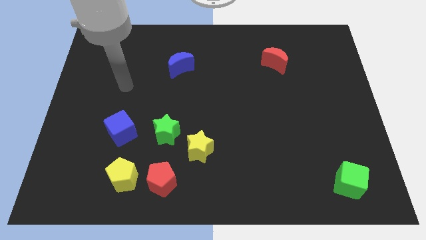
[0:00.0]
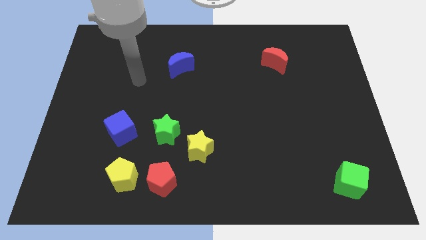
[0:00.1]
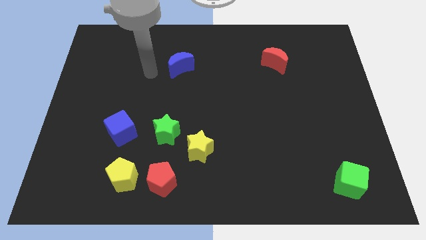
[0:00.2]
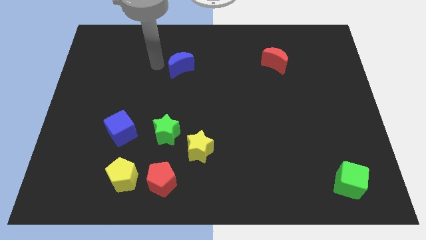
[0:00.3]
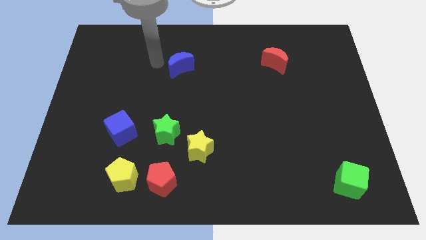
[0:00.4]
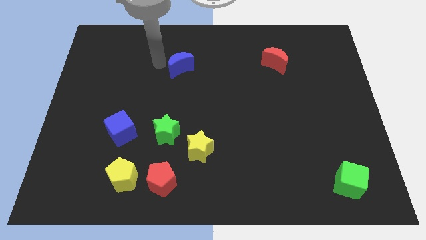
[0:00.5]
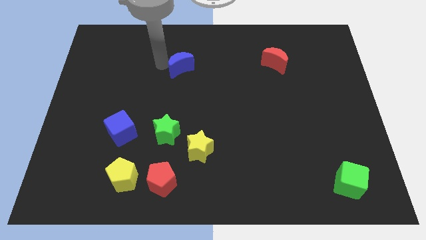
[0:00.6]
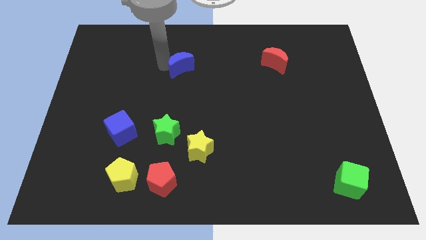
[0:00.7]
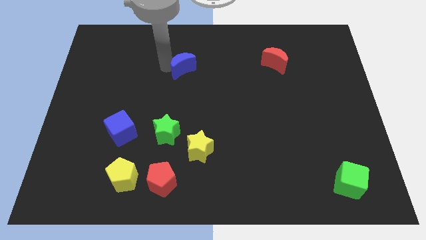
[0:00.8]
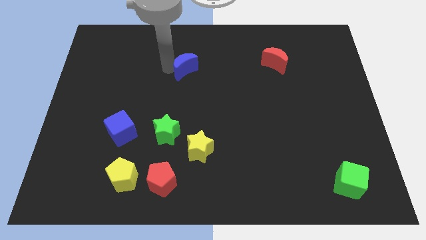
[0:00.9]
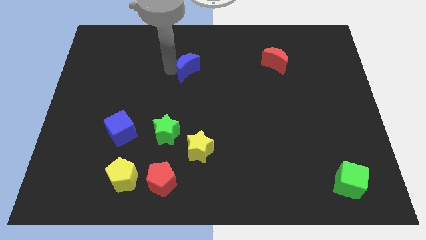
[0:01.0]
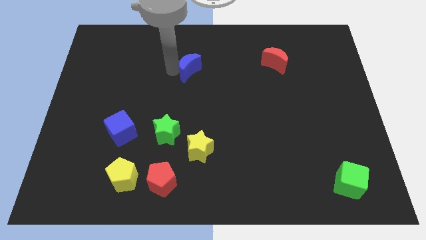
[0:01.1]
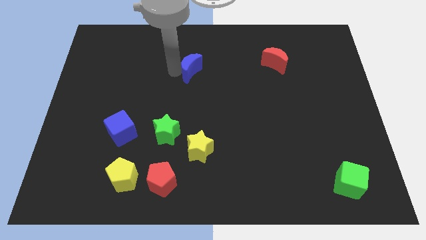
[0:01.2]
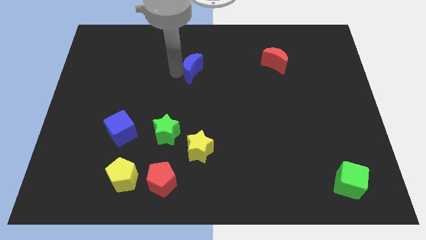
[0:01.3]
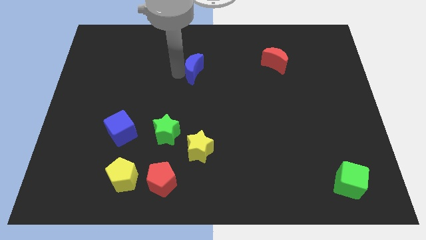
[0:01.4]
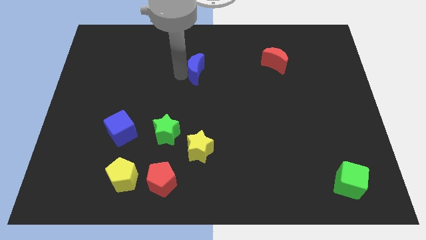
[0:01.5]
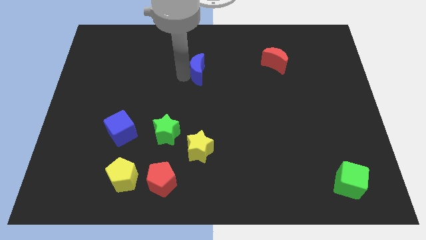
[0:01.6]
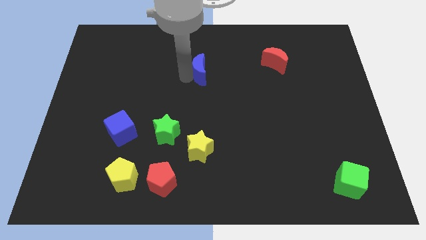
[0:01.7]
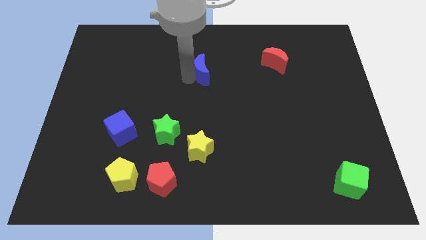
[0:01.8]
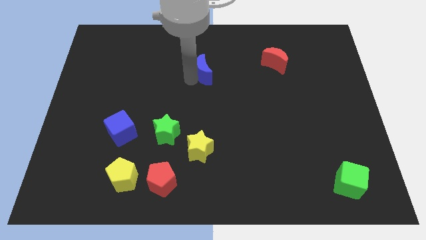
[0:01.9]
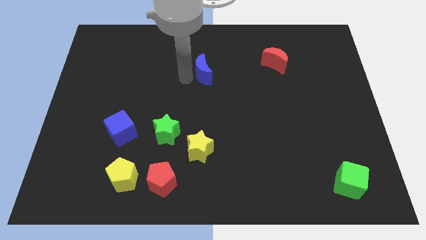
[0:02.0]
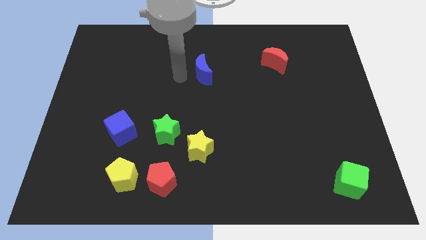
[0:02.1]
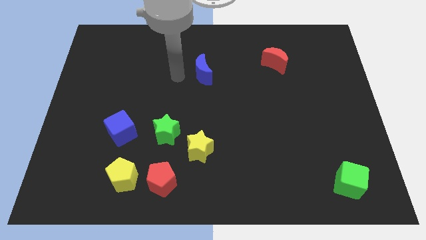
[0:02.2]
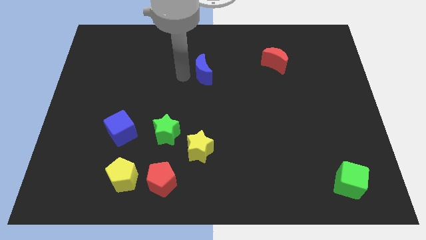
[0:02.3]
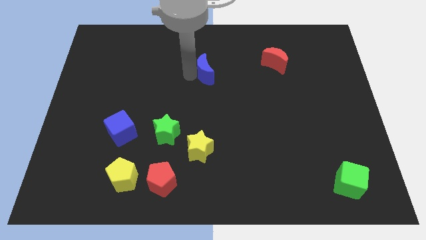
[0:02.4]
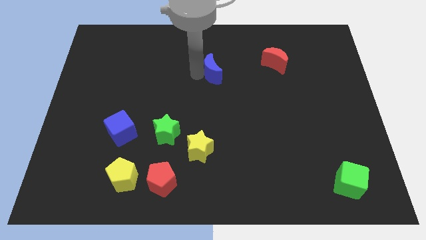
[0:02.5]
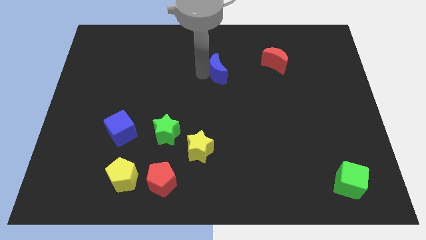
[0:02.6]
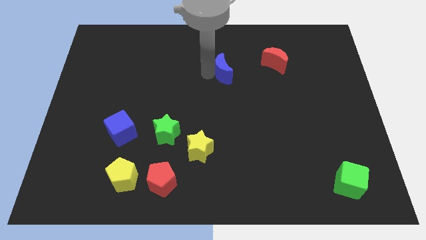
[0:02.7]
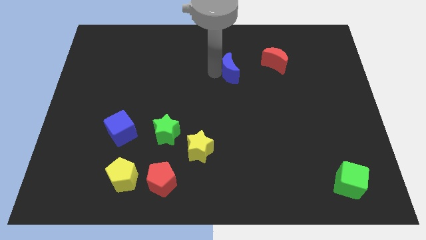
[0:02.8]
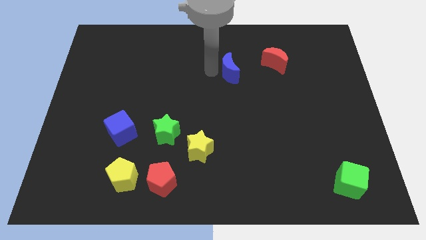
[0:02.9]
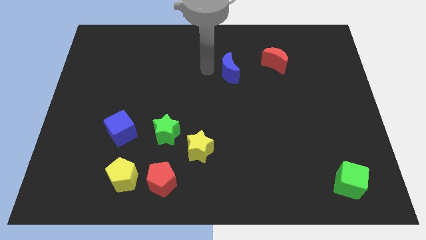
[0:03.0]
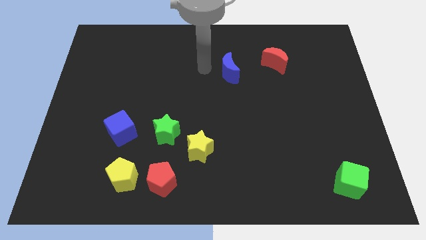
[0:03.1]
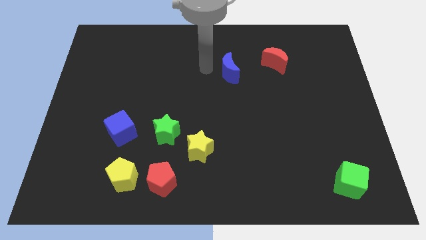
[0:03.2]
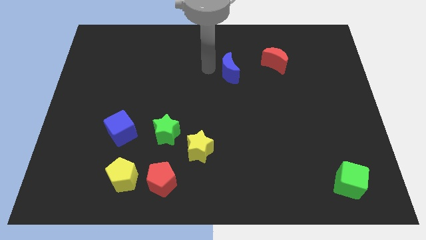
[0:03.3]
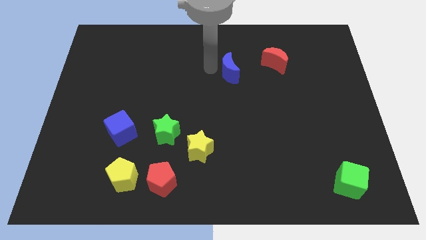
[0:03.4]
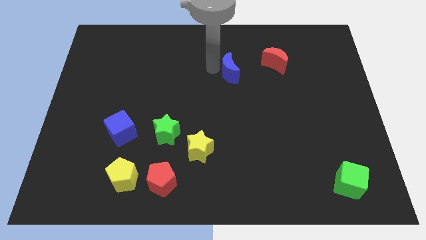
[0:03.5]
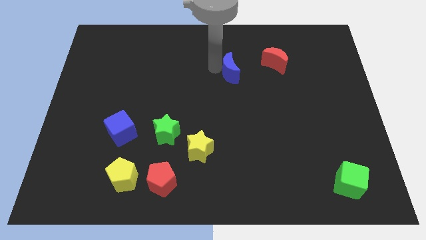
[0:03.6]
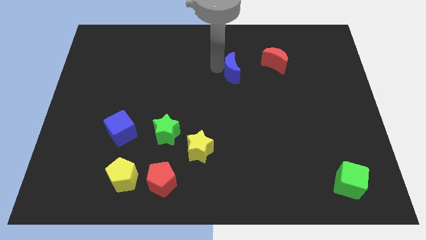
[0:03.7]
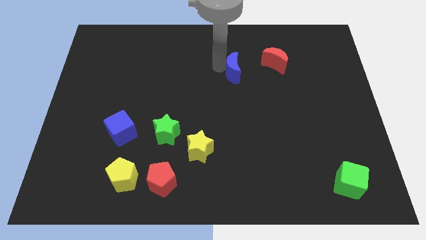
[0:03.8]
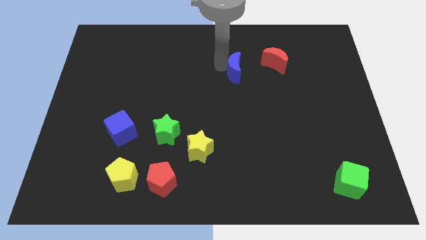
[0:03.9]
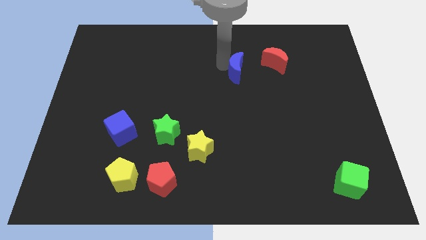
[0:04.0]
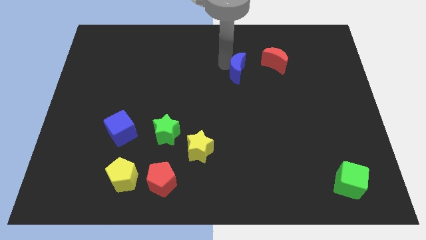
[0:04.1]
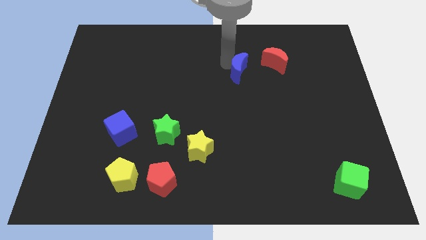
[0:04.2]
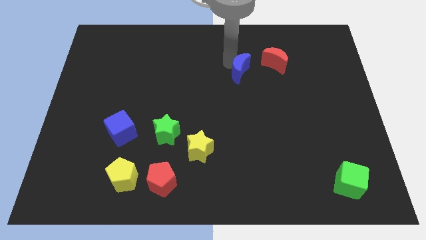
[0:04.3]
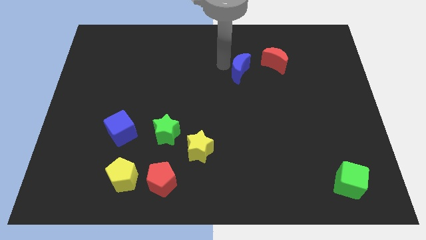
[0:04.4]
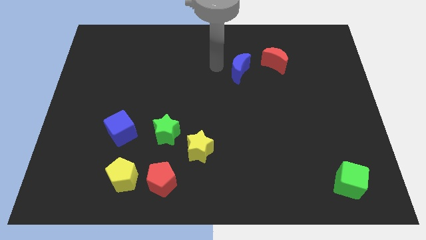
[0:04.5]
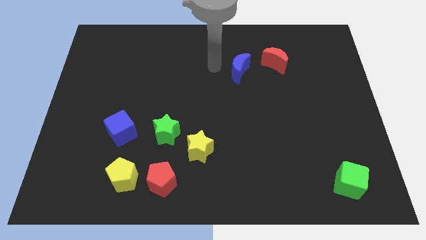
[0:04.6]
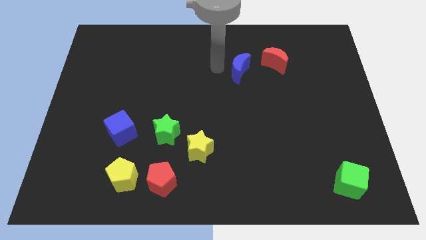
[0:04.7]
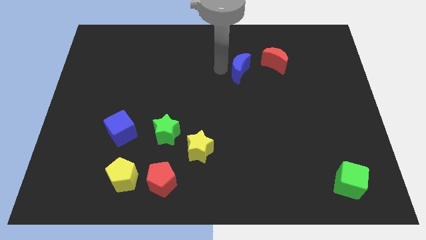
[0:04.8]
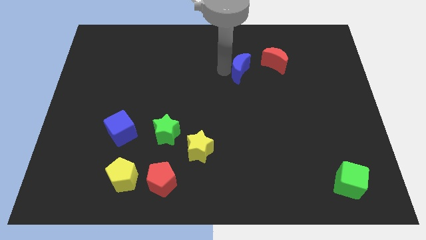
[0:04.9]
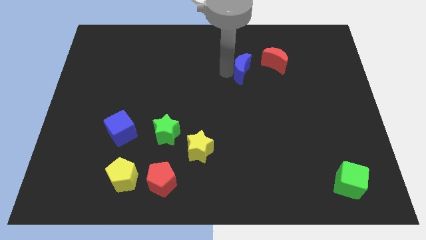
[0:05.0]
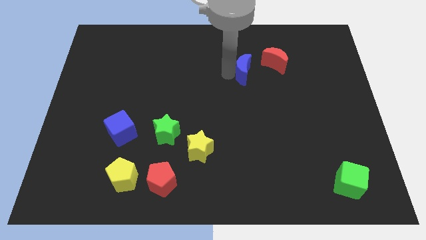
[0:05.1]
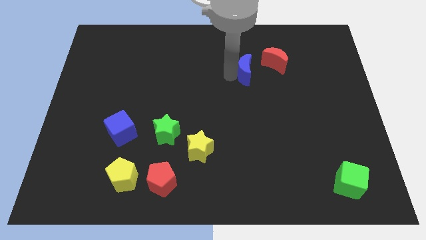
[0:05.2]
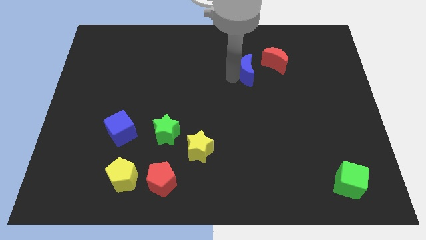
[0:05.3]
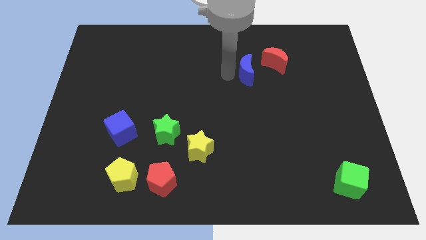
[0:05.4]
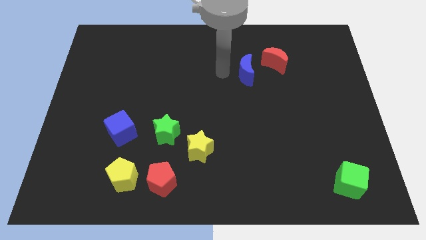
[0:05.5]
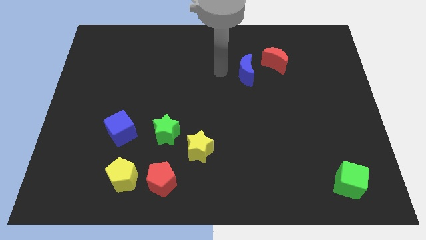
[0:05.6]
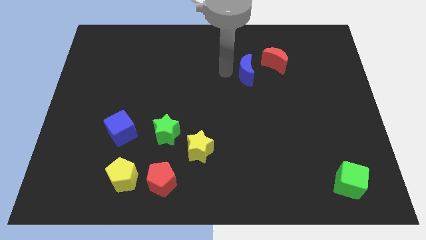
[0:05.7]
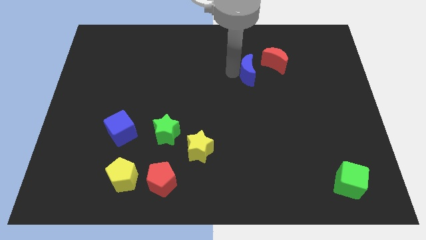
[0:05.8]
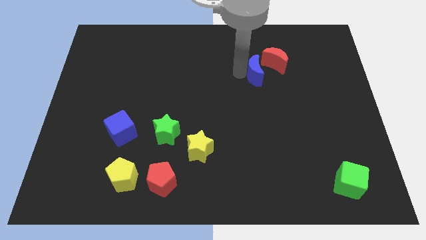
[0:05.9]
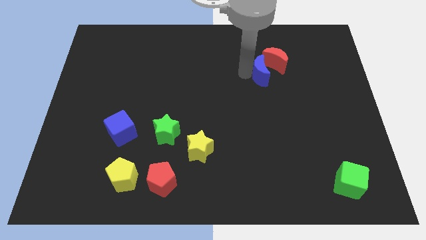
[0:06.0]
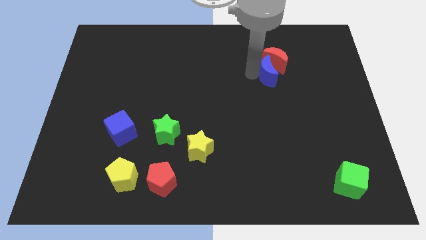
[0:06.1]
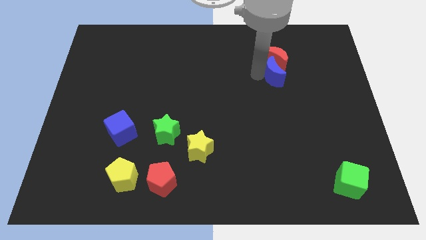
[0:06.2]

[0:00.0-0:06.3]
push the blue moon to the bottom right of the red moon
